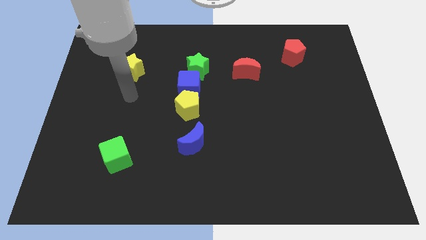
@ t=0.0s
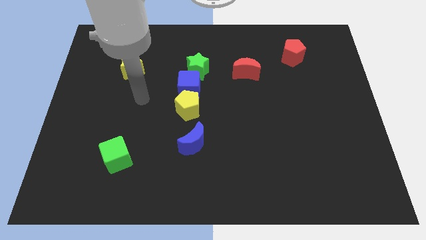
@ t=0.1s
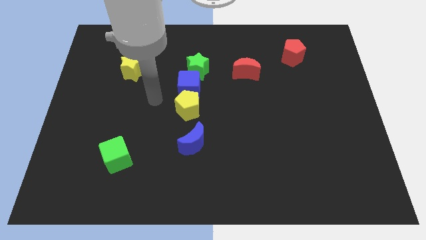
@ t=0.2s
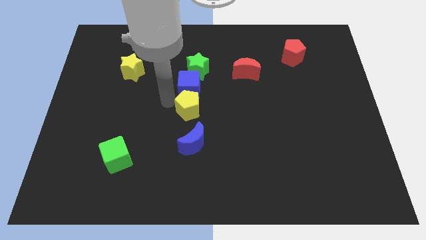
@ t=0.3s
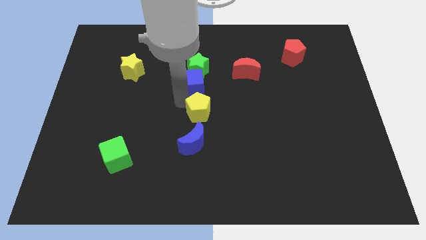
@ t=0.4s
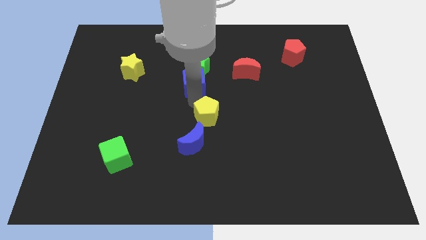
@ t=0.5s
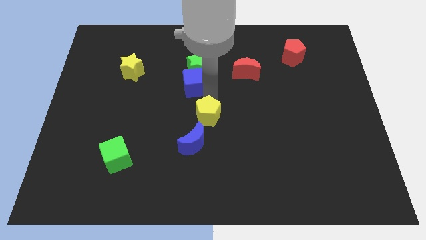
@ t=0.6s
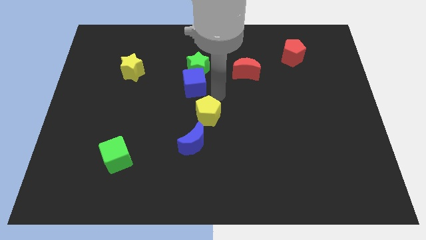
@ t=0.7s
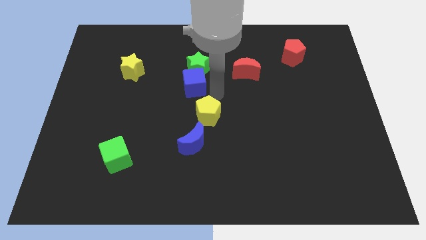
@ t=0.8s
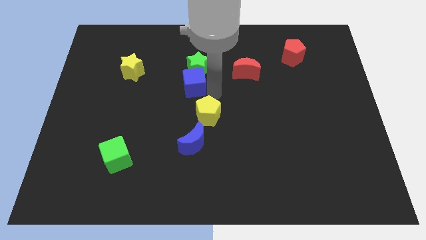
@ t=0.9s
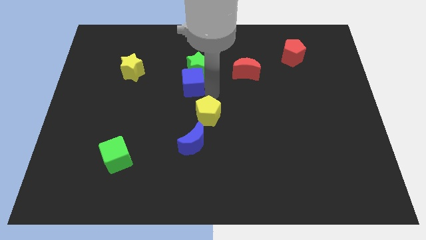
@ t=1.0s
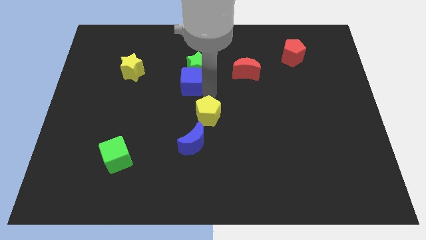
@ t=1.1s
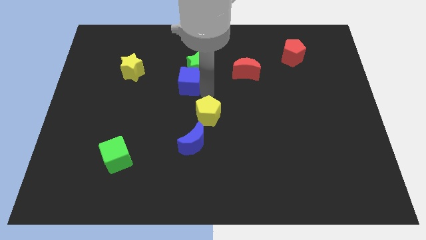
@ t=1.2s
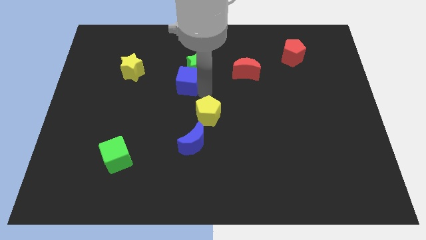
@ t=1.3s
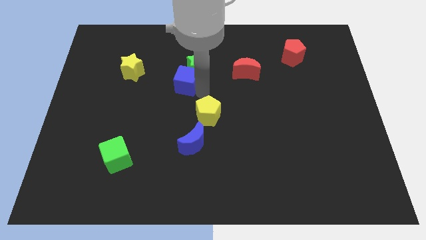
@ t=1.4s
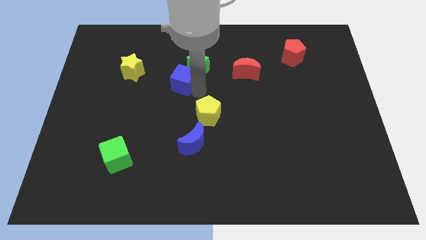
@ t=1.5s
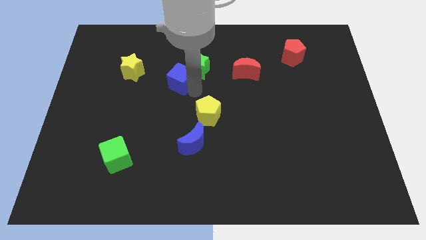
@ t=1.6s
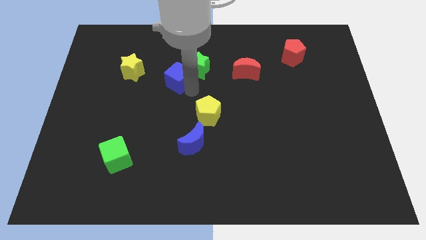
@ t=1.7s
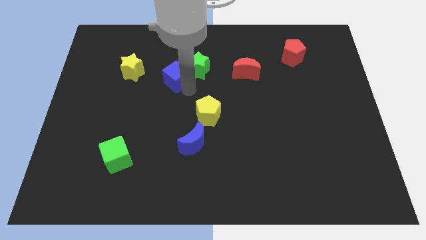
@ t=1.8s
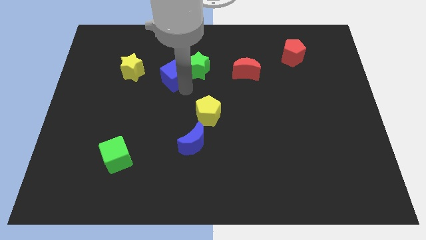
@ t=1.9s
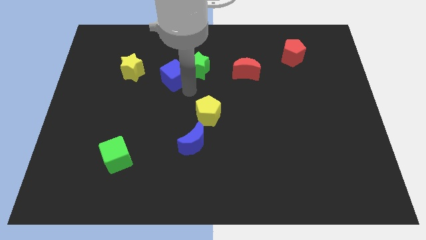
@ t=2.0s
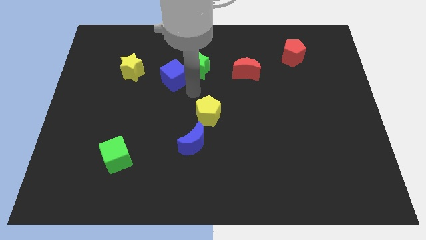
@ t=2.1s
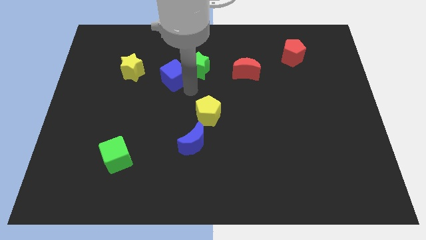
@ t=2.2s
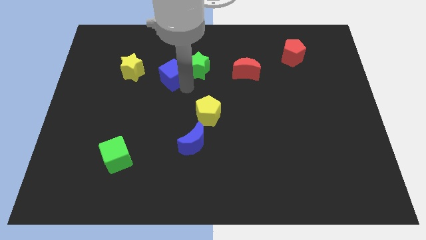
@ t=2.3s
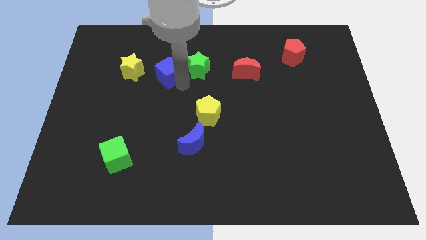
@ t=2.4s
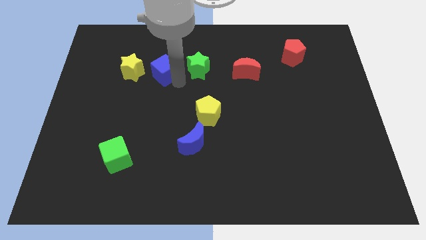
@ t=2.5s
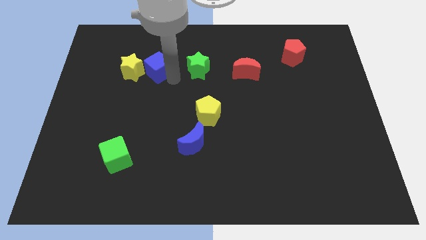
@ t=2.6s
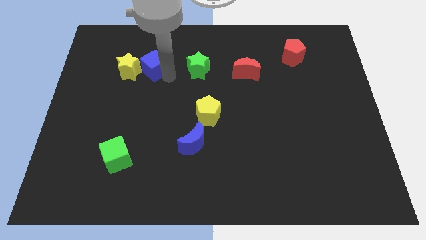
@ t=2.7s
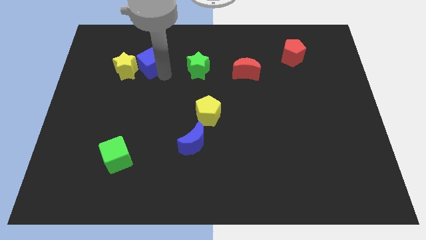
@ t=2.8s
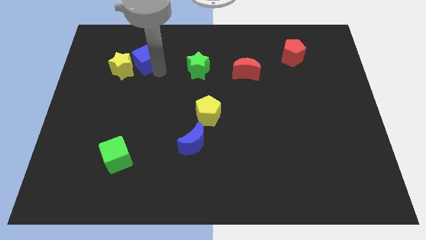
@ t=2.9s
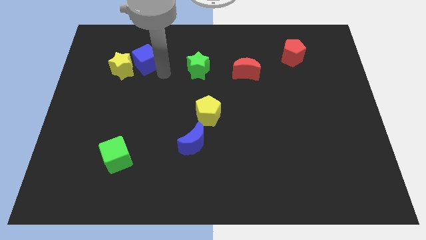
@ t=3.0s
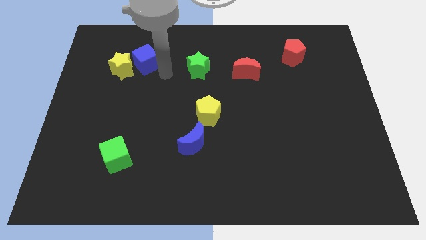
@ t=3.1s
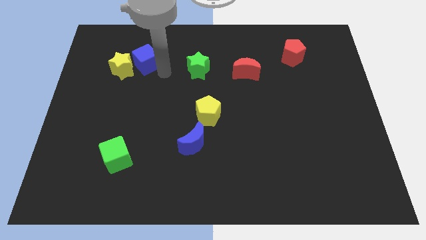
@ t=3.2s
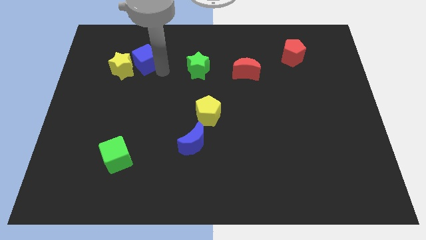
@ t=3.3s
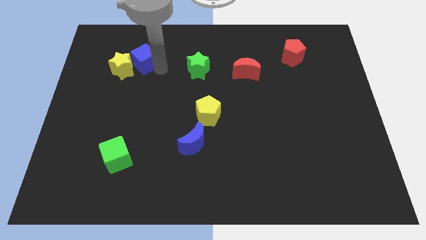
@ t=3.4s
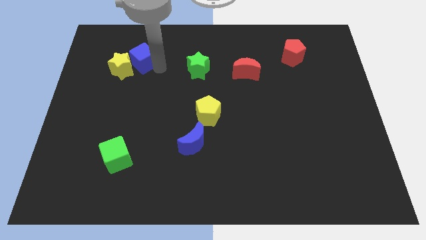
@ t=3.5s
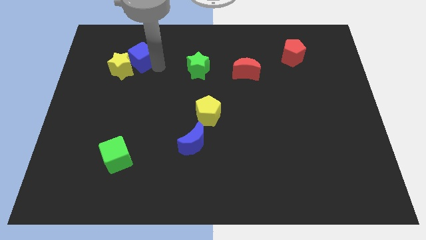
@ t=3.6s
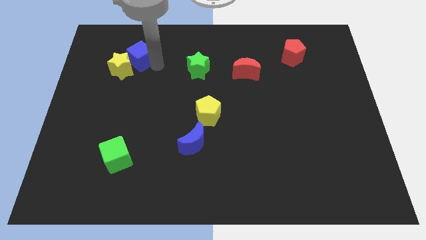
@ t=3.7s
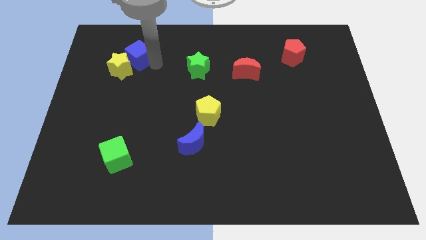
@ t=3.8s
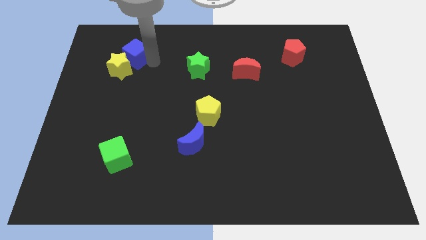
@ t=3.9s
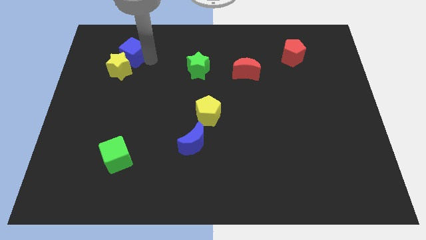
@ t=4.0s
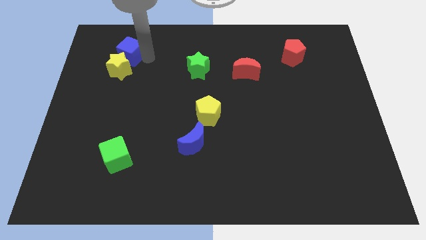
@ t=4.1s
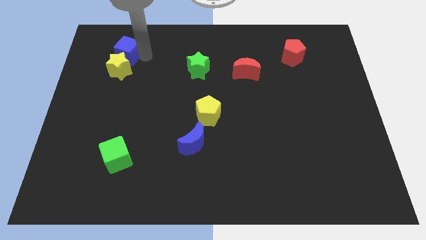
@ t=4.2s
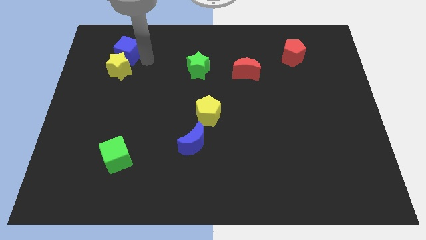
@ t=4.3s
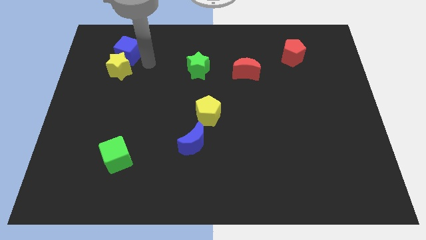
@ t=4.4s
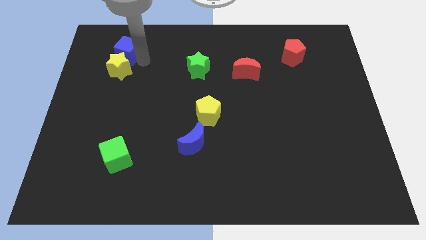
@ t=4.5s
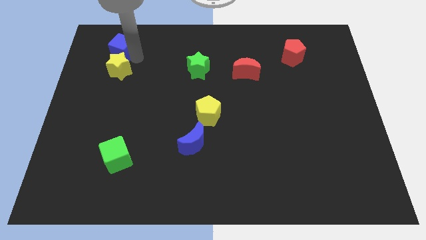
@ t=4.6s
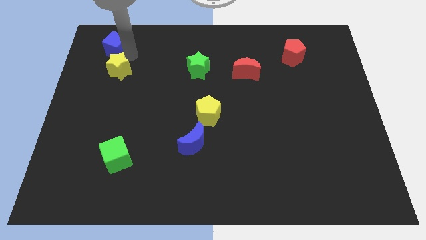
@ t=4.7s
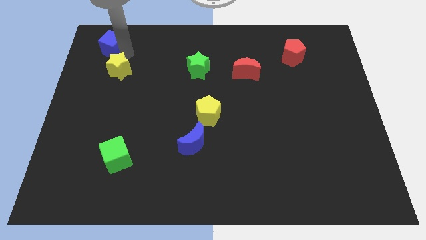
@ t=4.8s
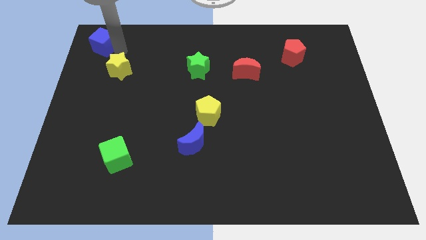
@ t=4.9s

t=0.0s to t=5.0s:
move the blue cube to the upper left corner

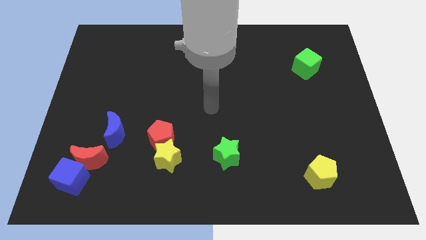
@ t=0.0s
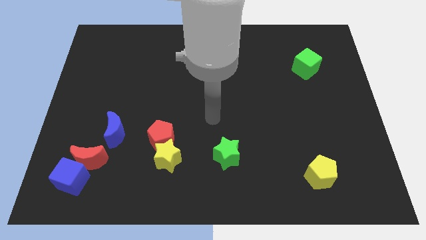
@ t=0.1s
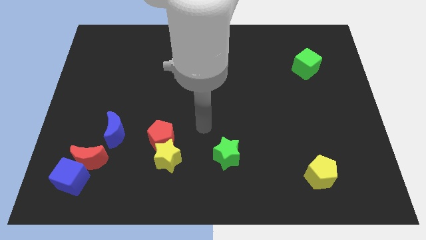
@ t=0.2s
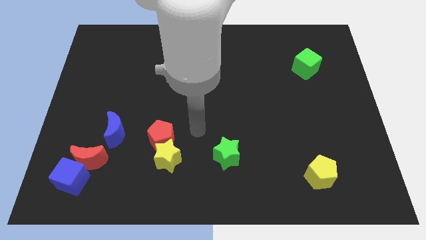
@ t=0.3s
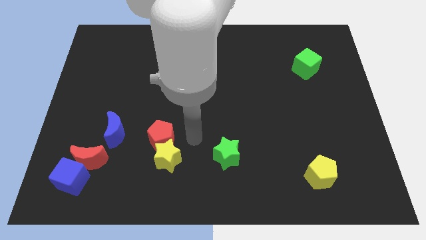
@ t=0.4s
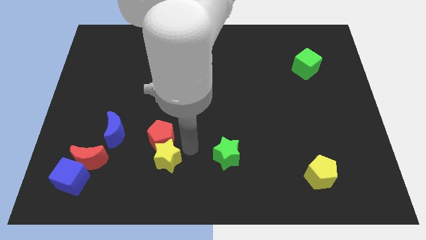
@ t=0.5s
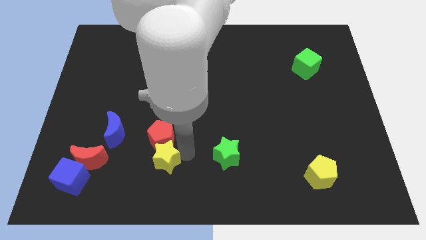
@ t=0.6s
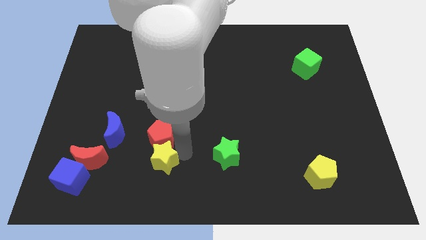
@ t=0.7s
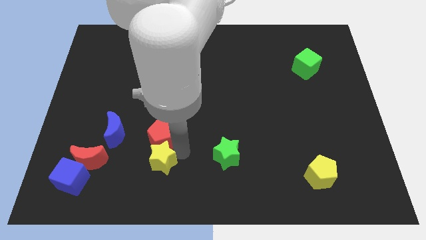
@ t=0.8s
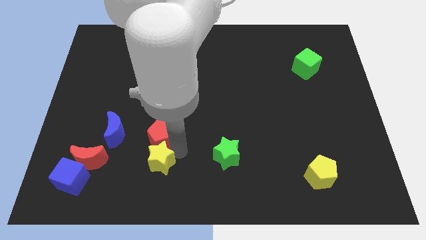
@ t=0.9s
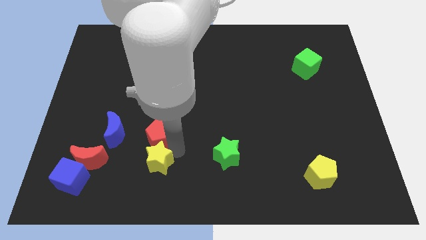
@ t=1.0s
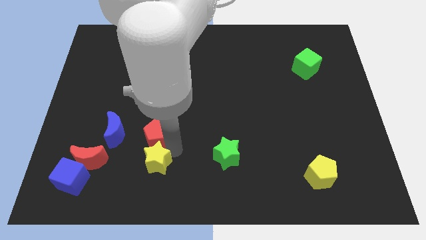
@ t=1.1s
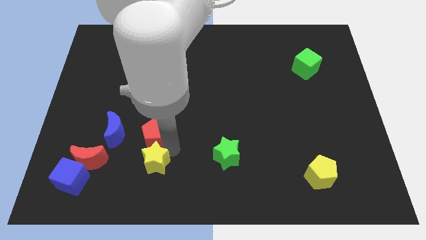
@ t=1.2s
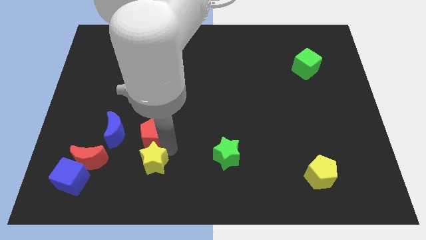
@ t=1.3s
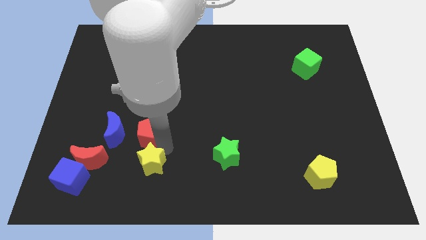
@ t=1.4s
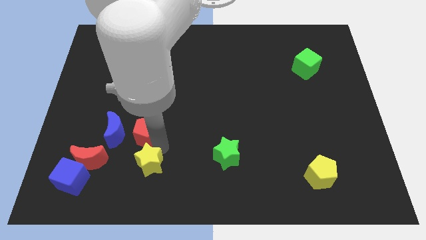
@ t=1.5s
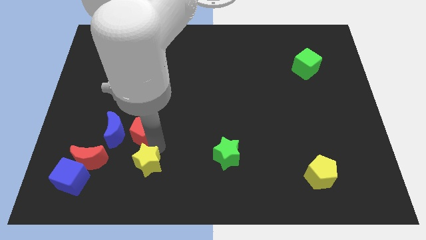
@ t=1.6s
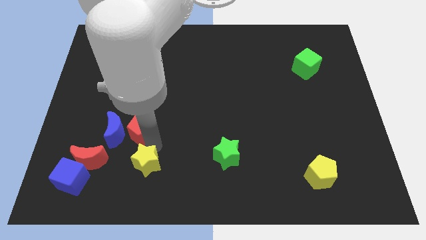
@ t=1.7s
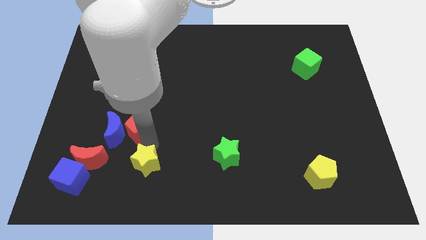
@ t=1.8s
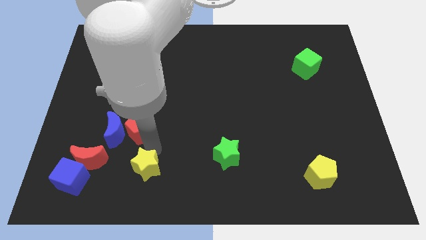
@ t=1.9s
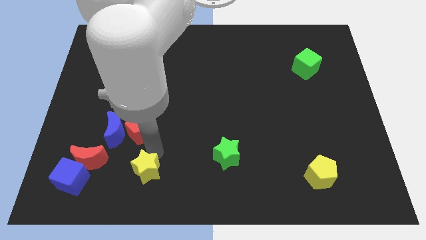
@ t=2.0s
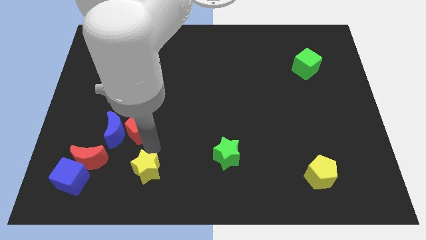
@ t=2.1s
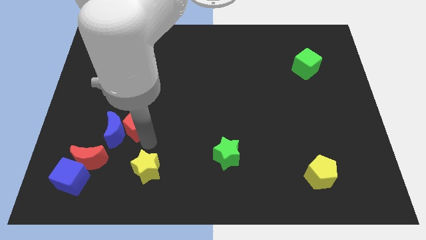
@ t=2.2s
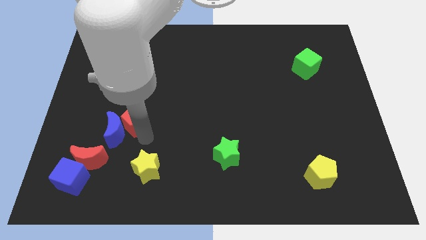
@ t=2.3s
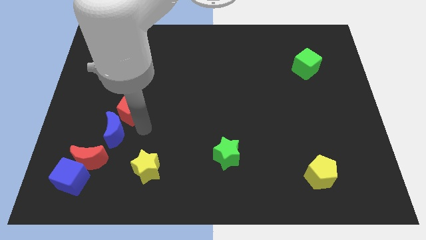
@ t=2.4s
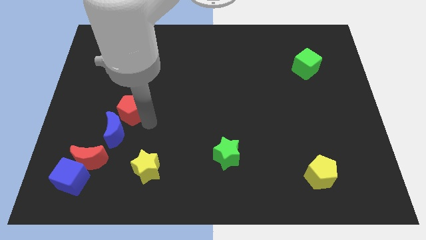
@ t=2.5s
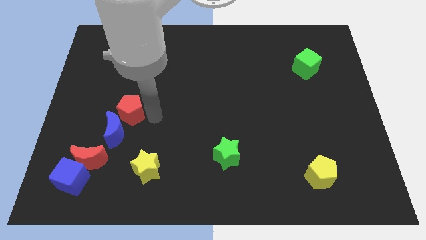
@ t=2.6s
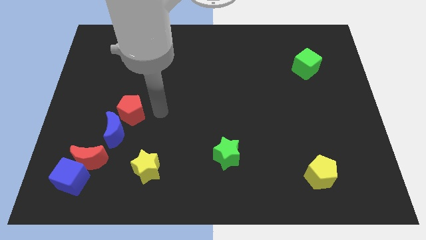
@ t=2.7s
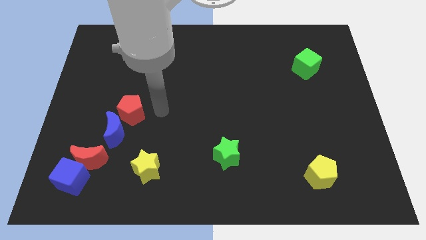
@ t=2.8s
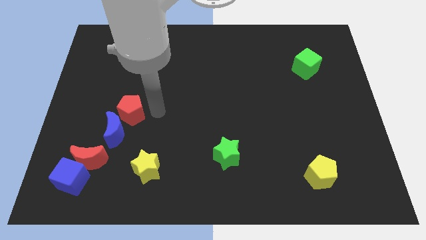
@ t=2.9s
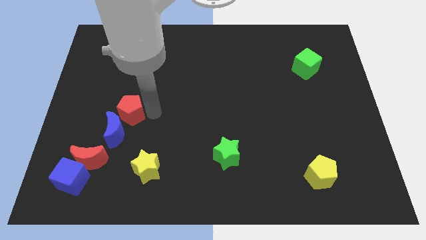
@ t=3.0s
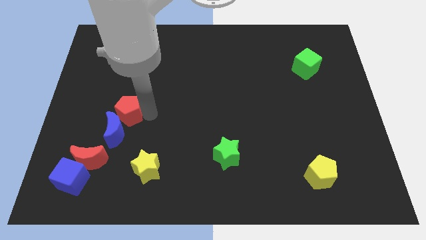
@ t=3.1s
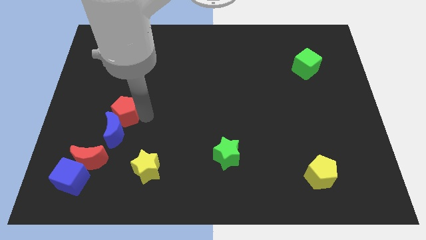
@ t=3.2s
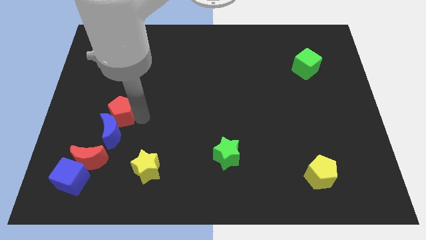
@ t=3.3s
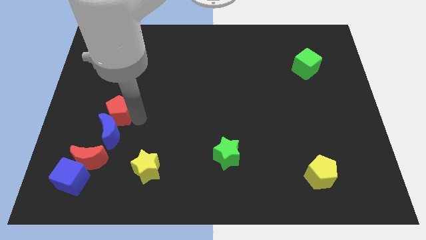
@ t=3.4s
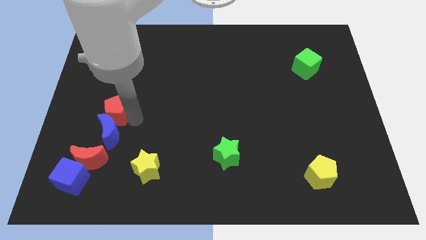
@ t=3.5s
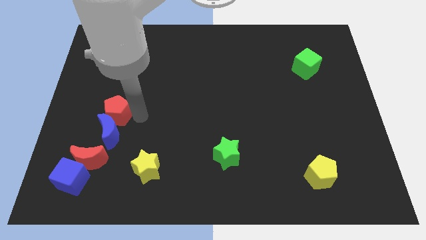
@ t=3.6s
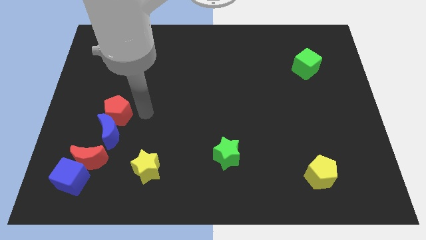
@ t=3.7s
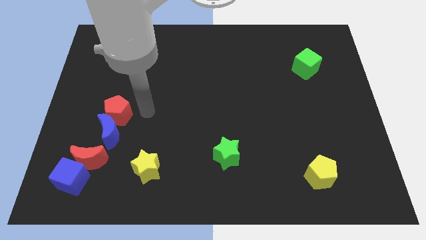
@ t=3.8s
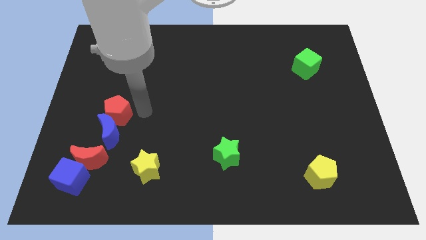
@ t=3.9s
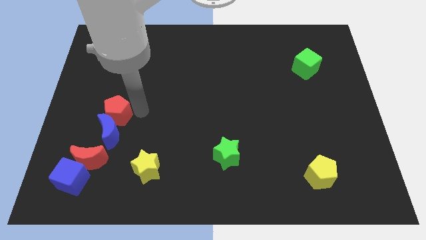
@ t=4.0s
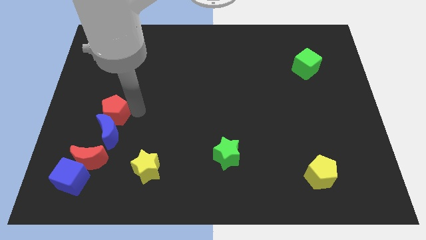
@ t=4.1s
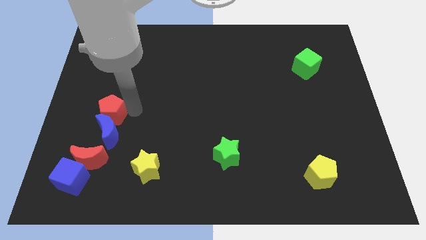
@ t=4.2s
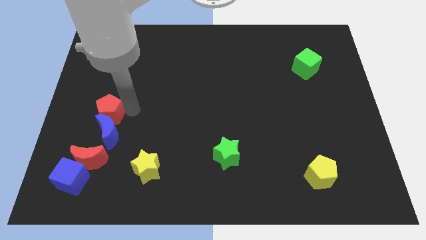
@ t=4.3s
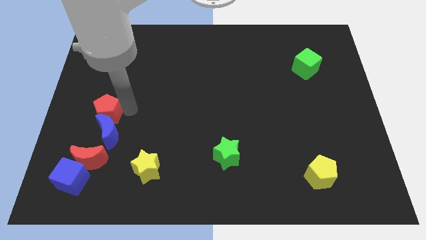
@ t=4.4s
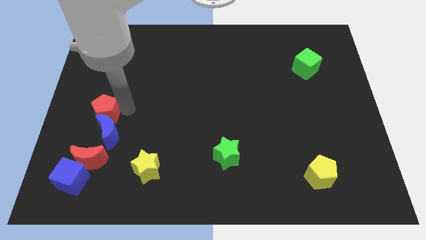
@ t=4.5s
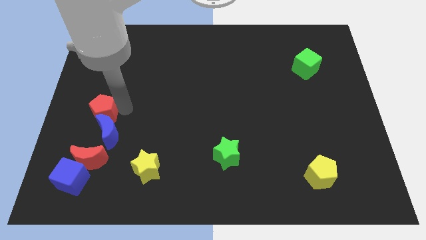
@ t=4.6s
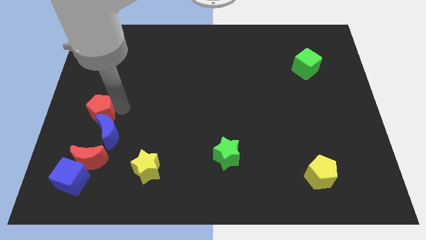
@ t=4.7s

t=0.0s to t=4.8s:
put the red pentagon to the left side
